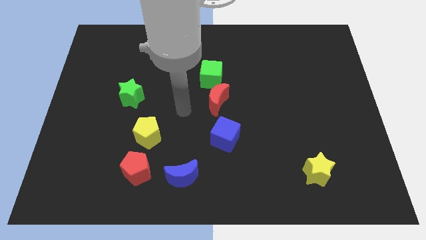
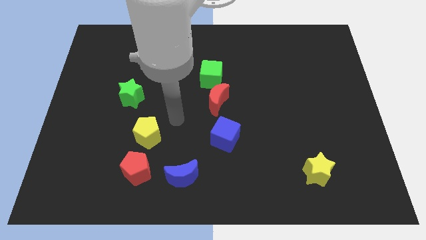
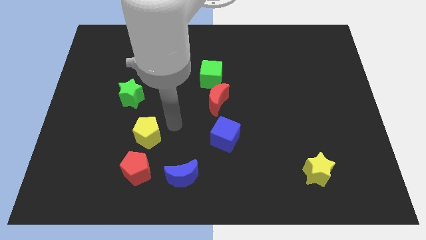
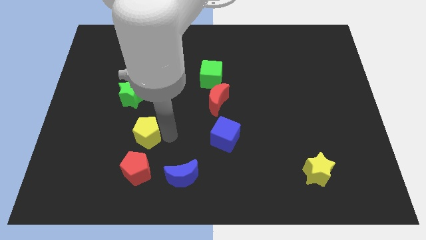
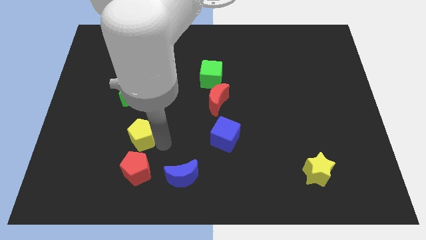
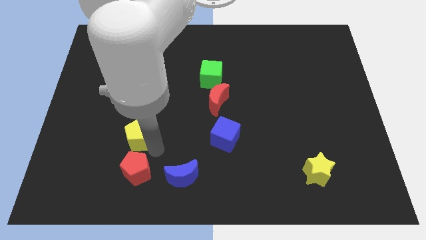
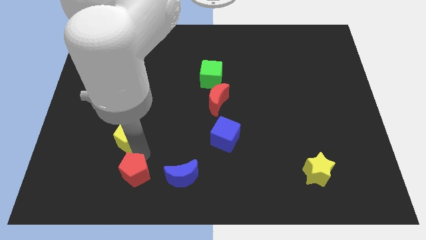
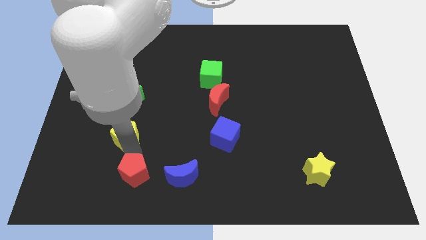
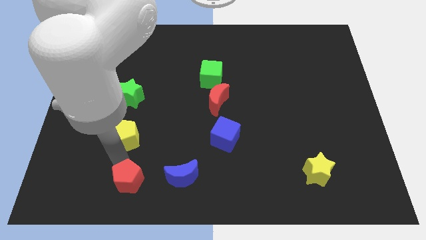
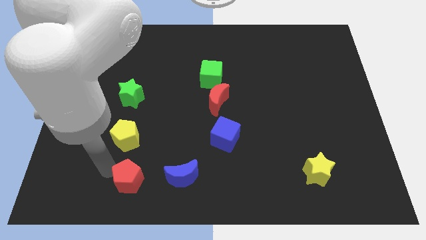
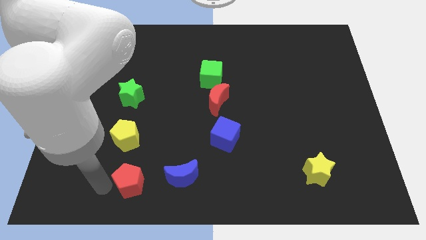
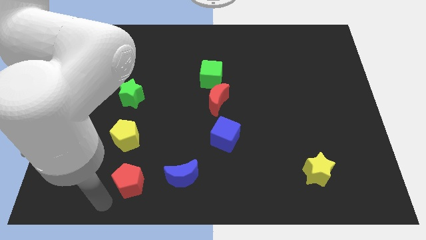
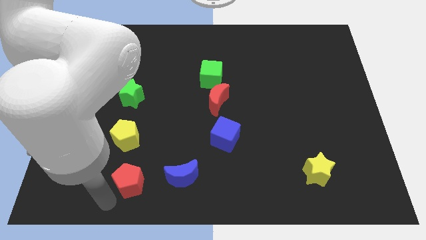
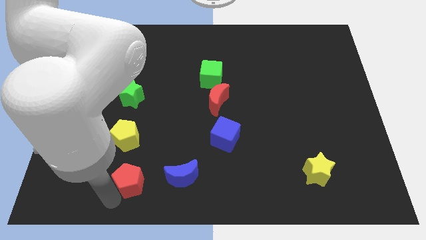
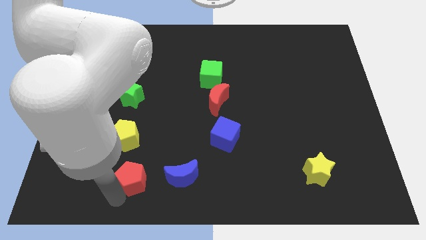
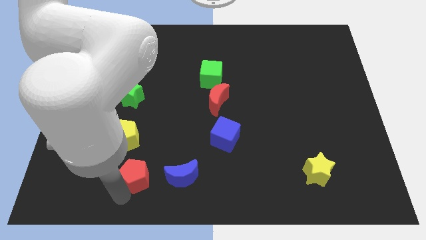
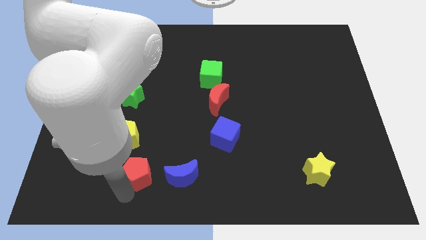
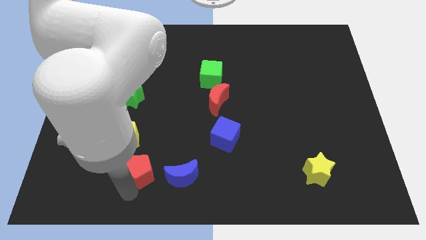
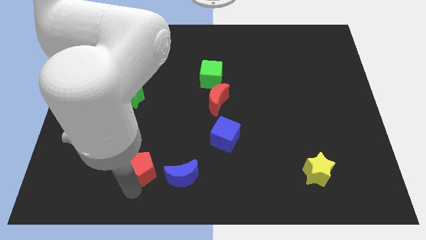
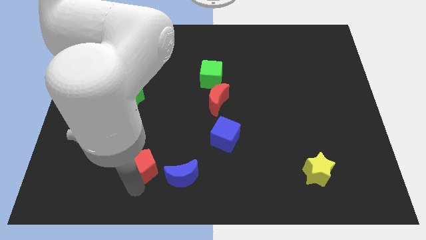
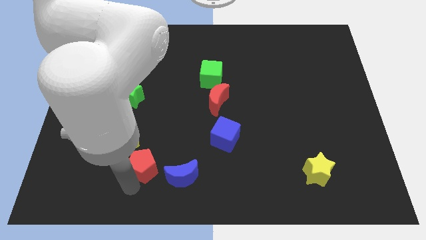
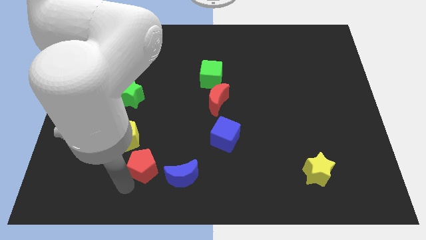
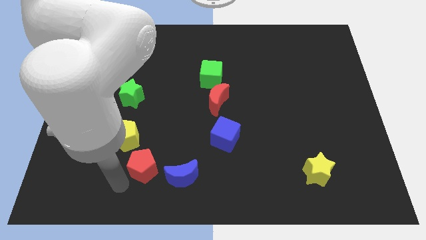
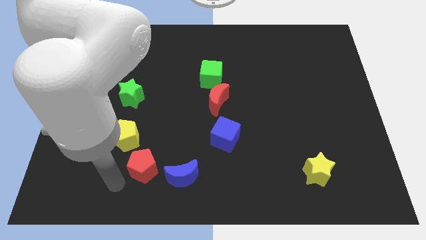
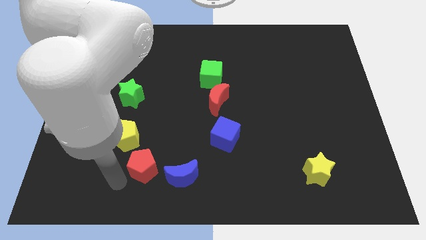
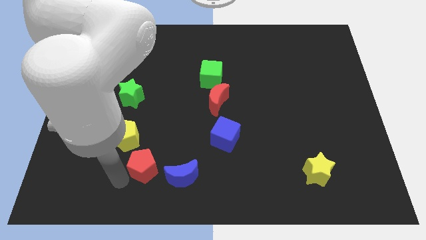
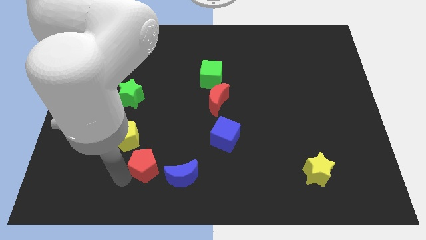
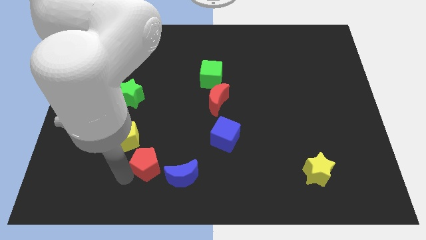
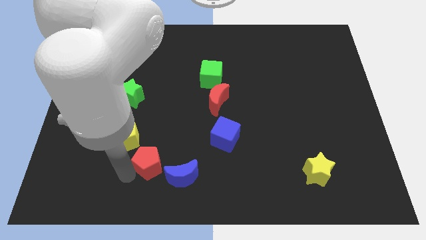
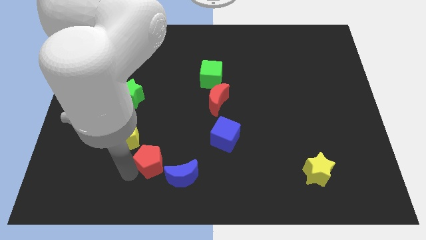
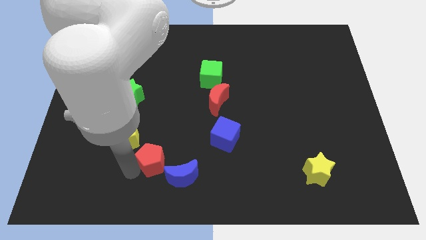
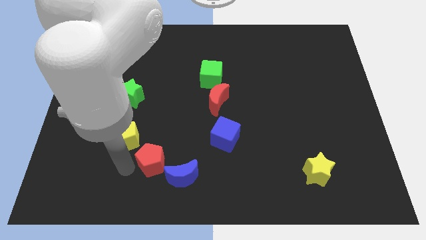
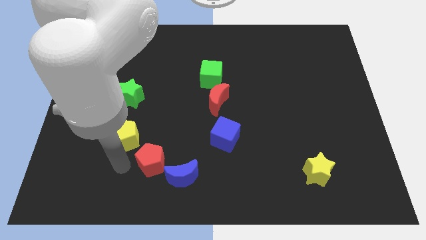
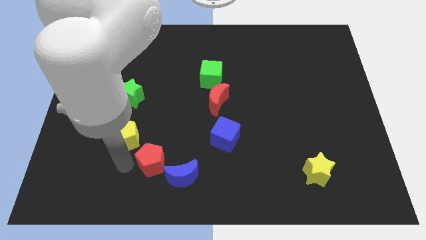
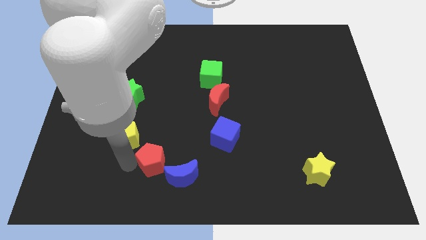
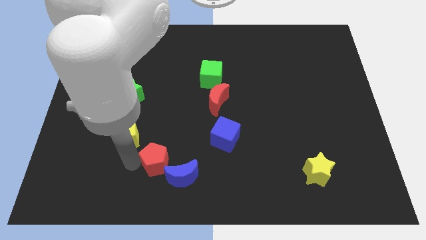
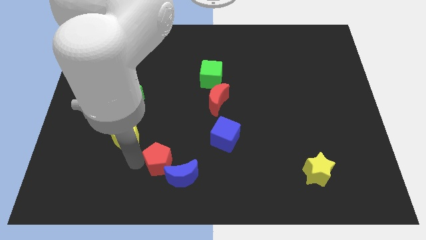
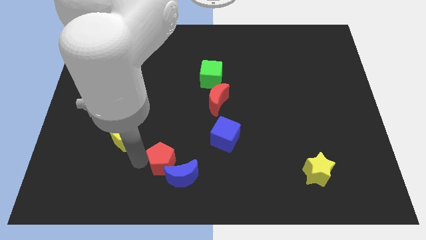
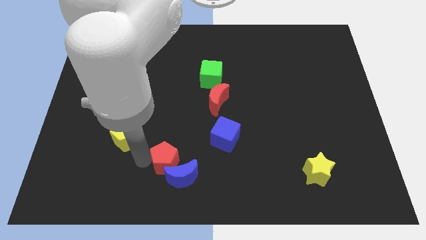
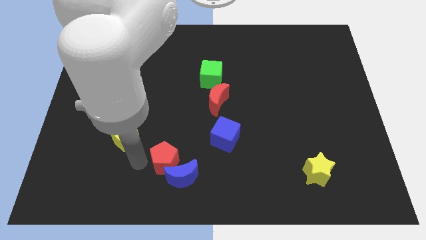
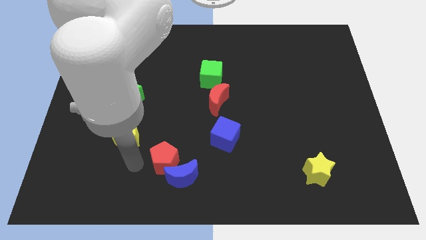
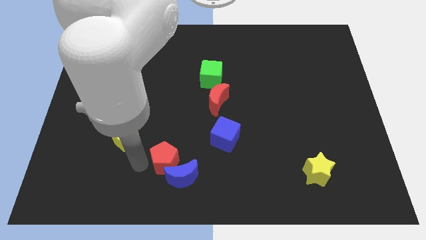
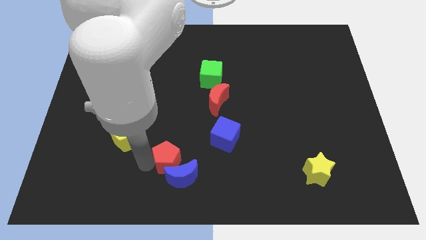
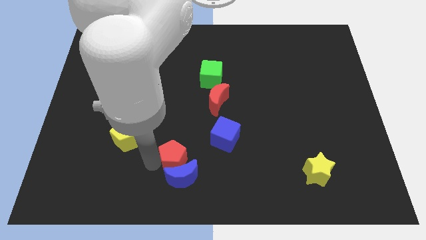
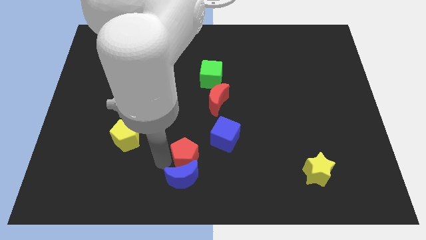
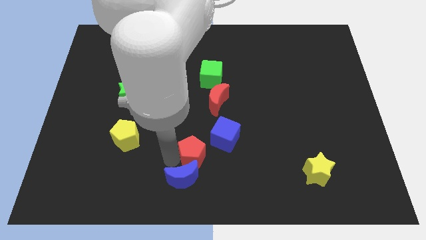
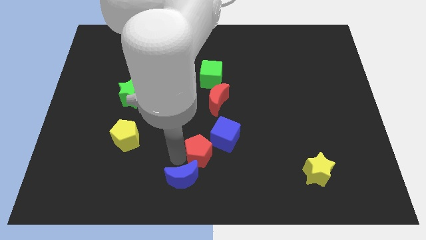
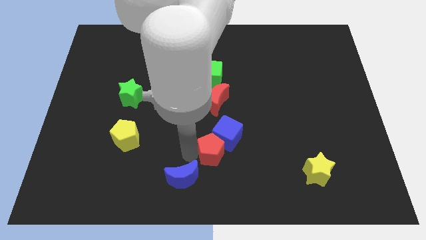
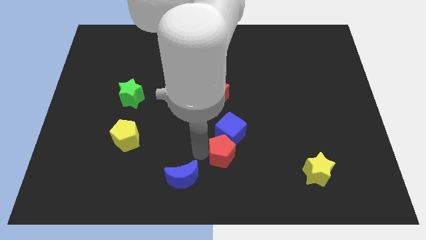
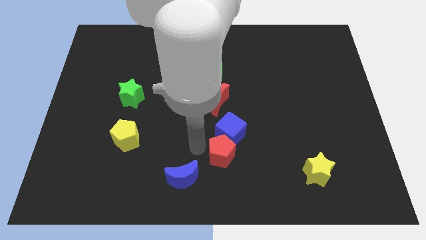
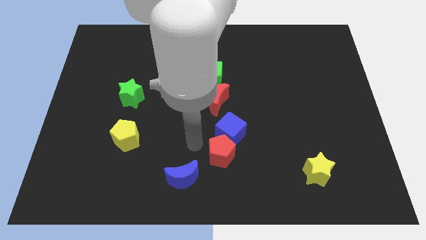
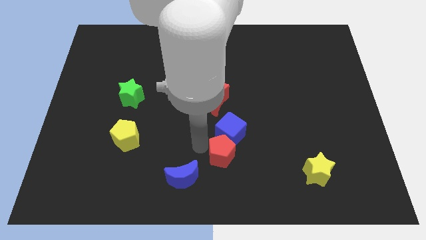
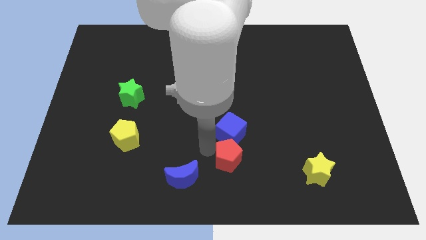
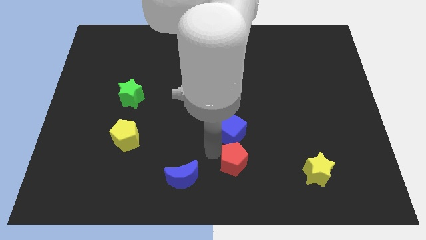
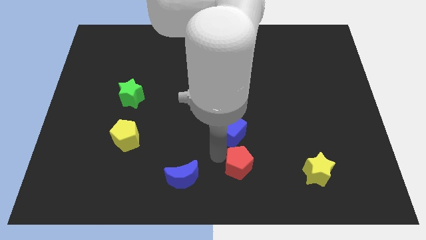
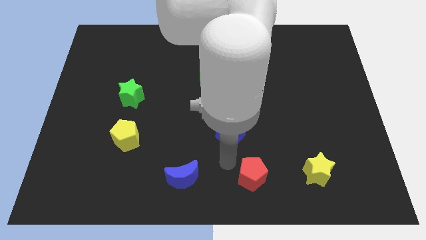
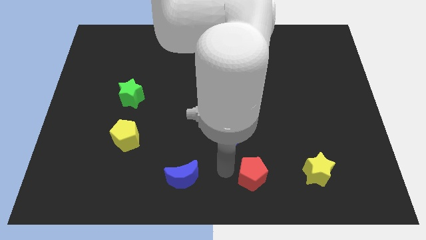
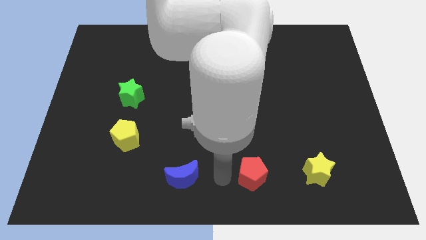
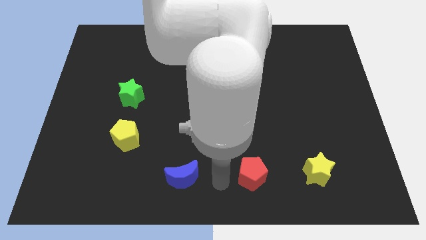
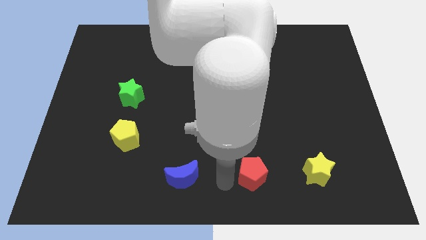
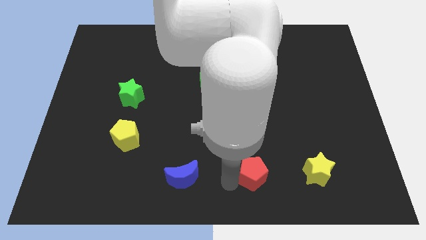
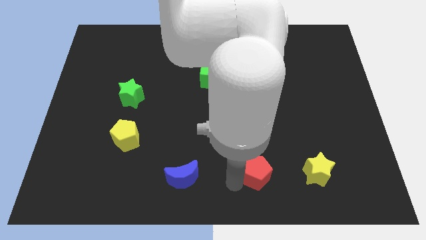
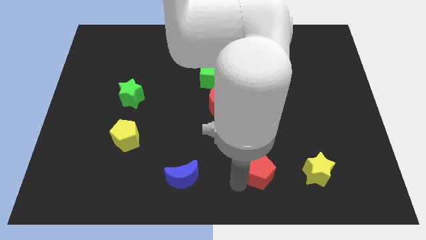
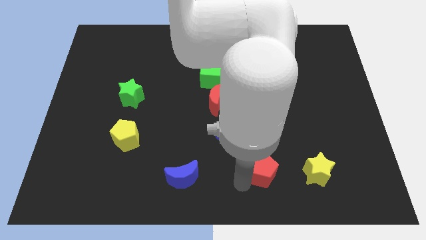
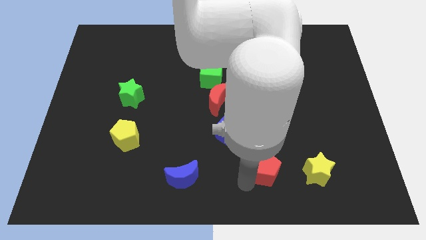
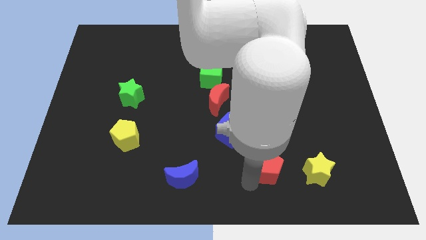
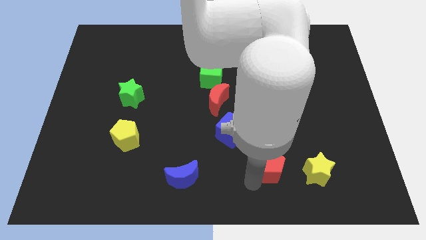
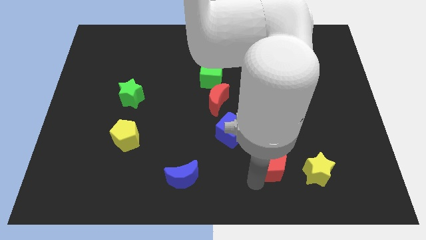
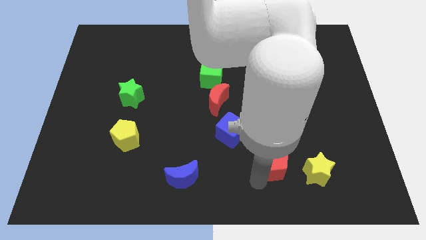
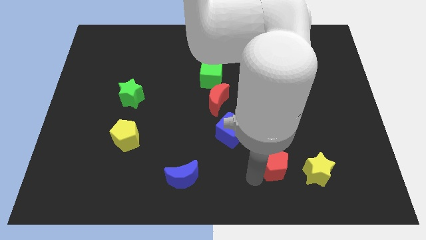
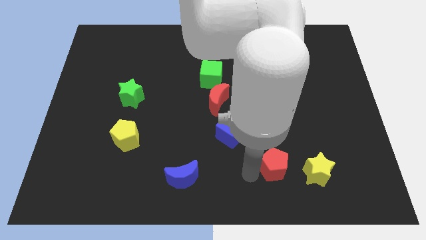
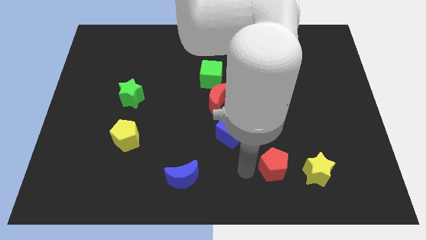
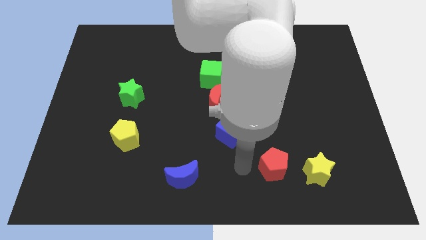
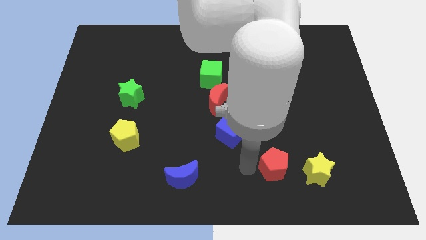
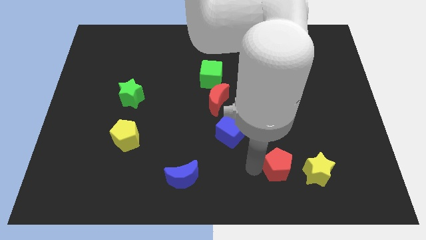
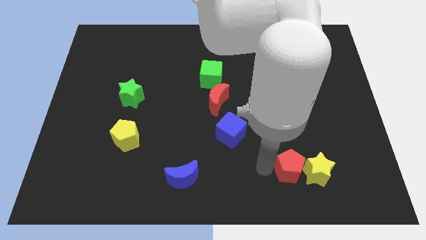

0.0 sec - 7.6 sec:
slide the red pentagon close to the yellow star
